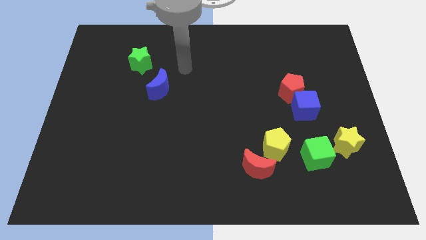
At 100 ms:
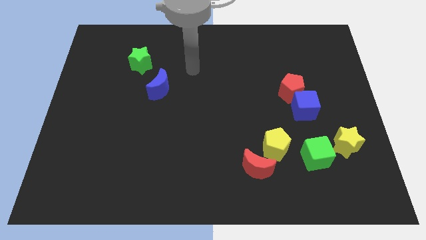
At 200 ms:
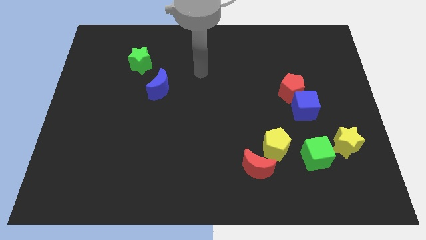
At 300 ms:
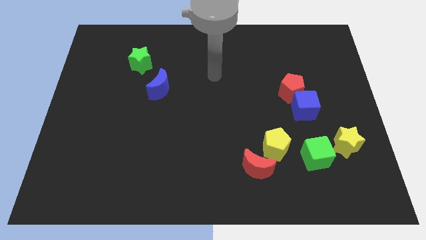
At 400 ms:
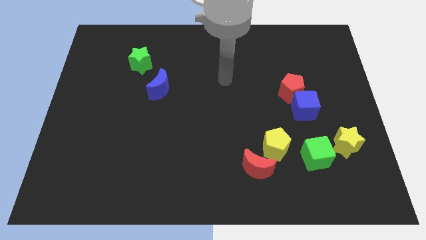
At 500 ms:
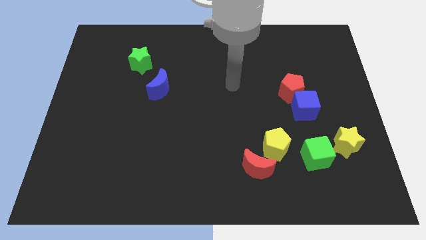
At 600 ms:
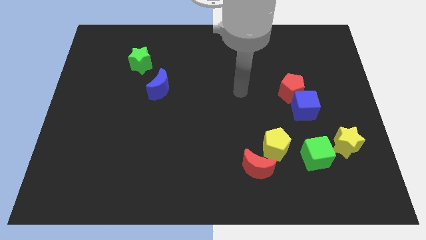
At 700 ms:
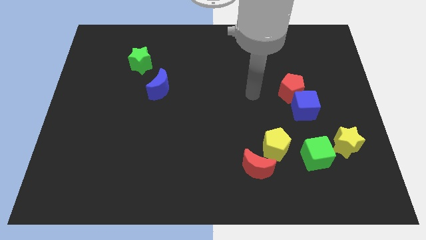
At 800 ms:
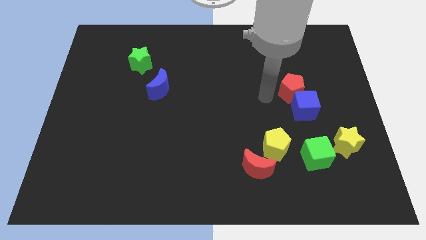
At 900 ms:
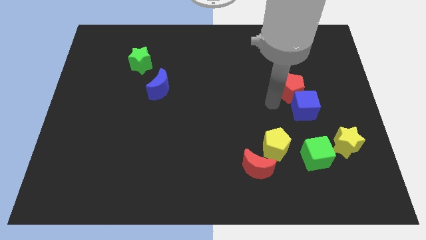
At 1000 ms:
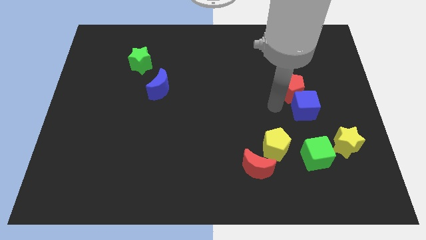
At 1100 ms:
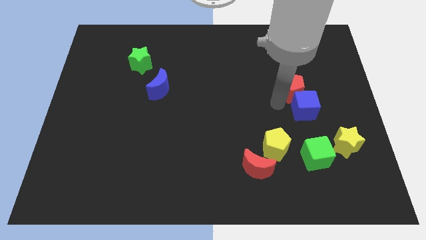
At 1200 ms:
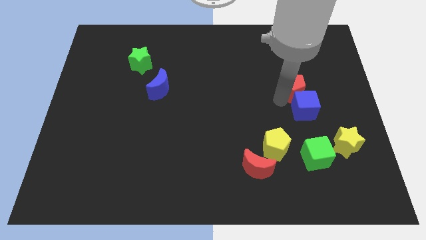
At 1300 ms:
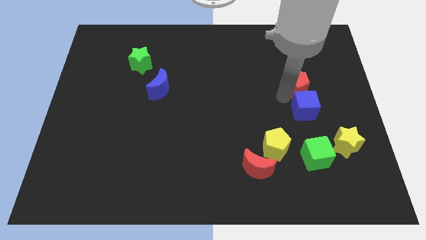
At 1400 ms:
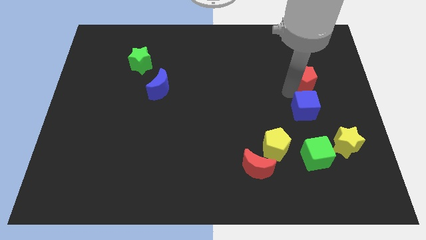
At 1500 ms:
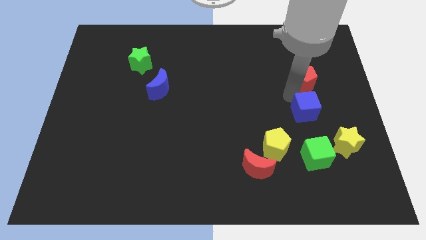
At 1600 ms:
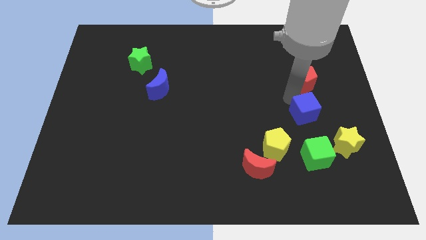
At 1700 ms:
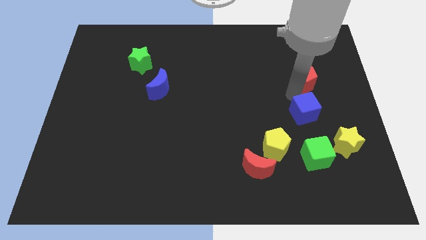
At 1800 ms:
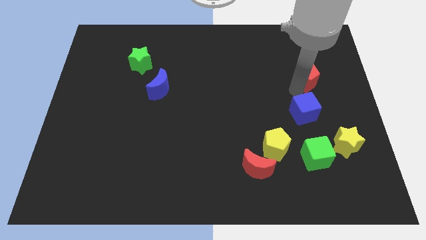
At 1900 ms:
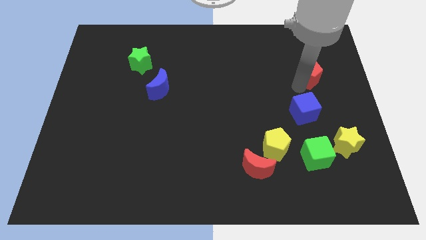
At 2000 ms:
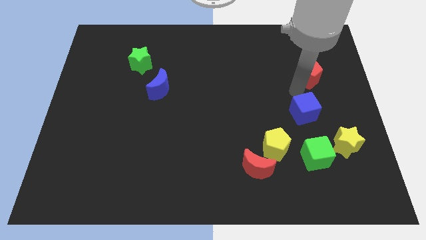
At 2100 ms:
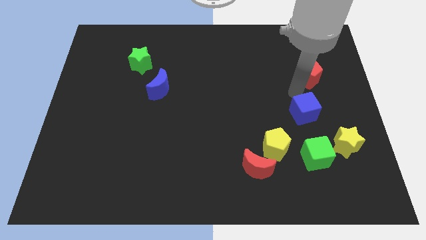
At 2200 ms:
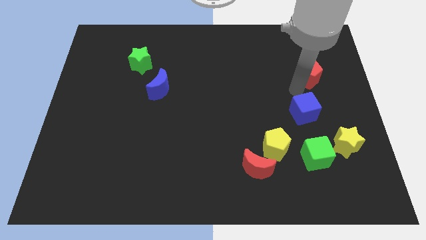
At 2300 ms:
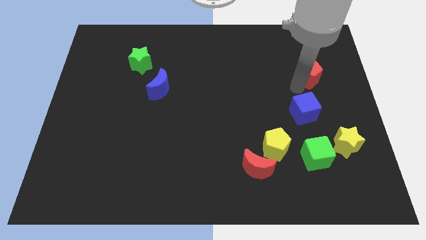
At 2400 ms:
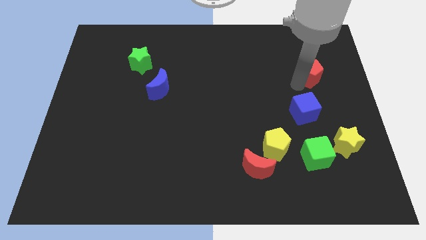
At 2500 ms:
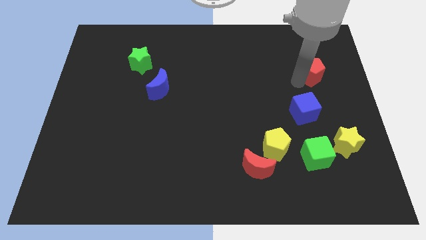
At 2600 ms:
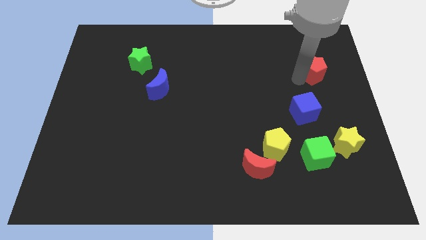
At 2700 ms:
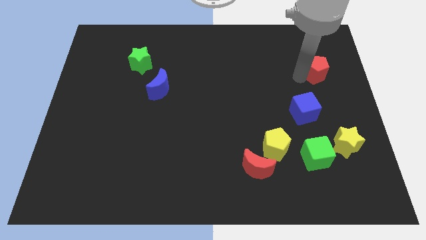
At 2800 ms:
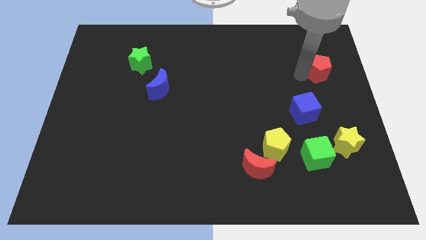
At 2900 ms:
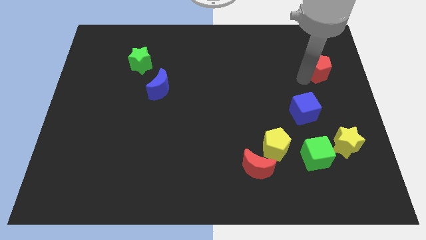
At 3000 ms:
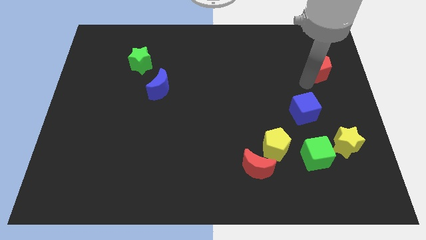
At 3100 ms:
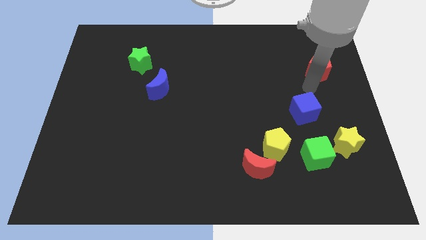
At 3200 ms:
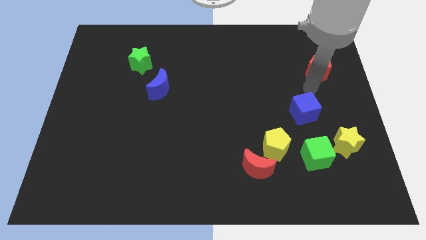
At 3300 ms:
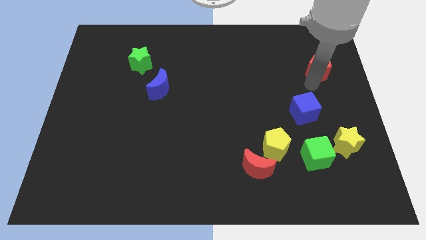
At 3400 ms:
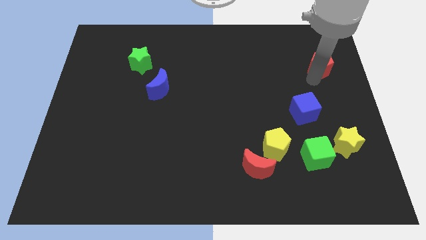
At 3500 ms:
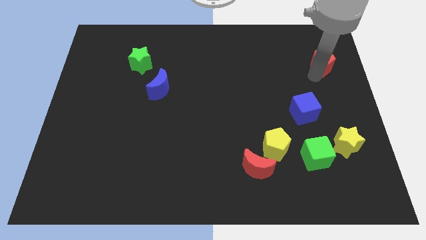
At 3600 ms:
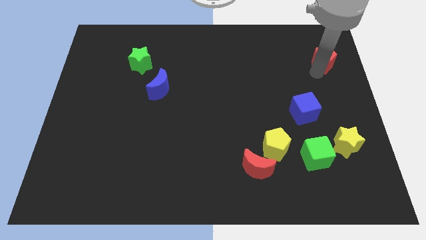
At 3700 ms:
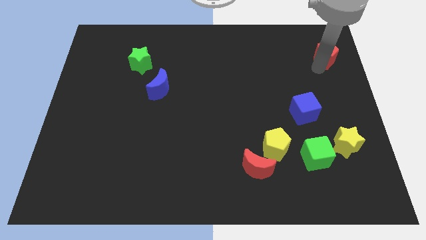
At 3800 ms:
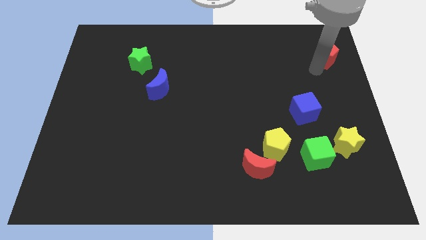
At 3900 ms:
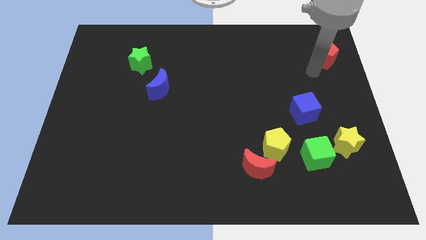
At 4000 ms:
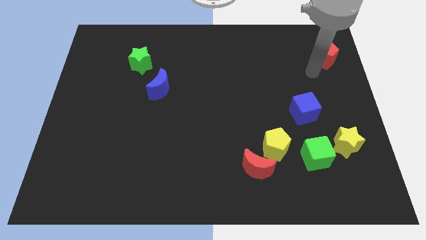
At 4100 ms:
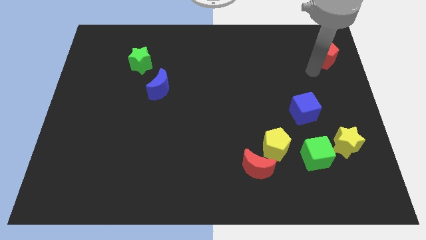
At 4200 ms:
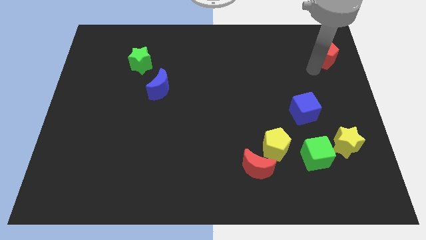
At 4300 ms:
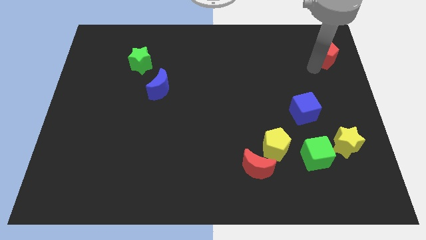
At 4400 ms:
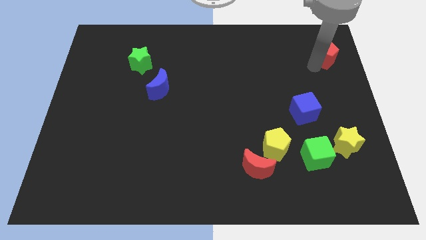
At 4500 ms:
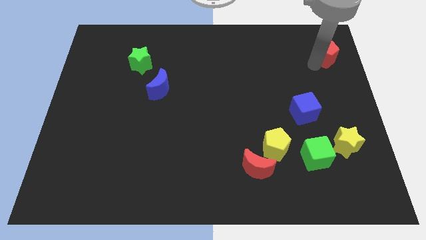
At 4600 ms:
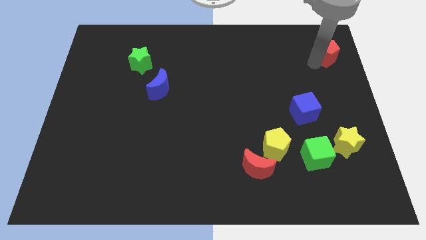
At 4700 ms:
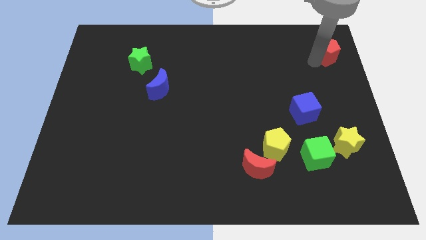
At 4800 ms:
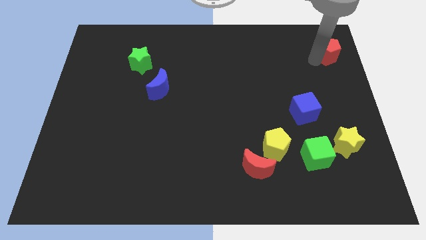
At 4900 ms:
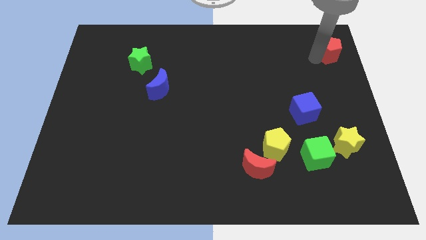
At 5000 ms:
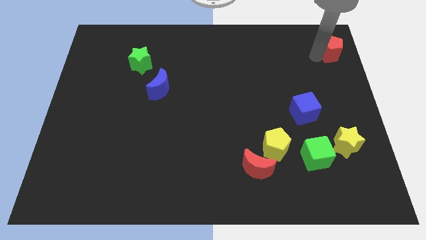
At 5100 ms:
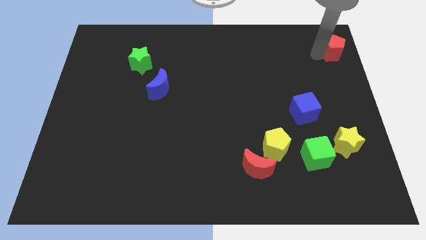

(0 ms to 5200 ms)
slide the red pentagon to the upper right corner

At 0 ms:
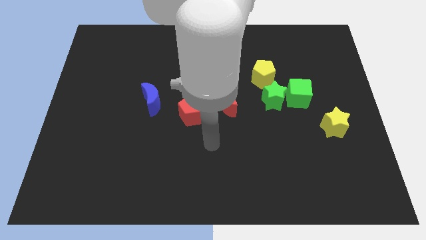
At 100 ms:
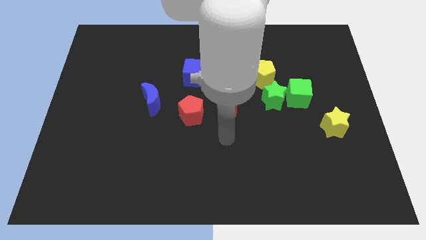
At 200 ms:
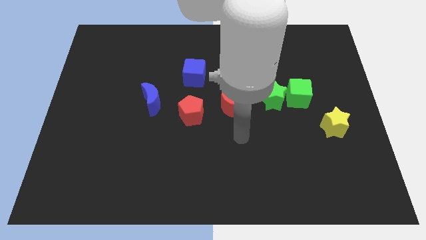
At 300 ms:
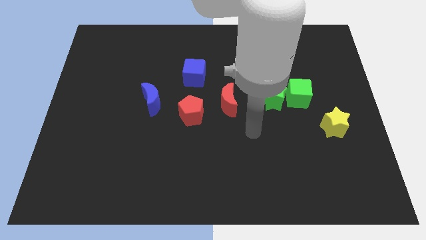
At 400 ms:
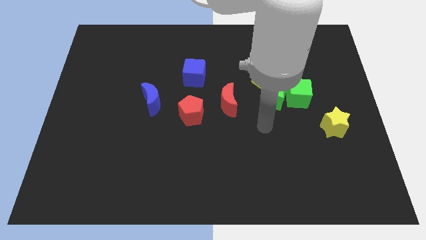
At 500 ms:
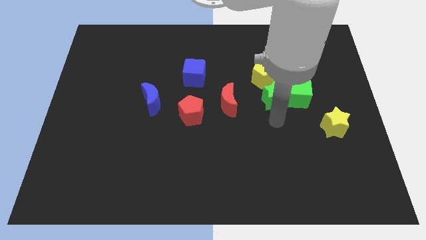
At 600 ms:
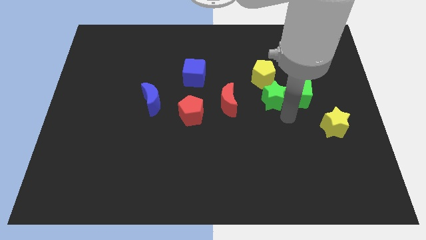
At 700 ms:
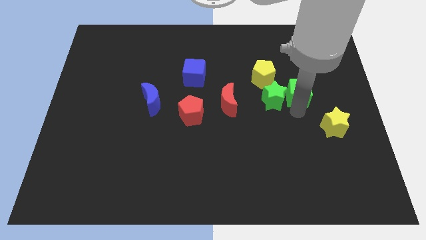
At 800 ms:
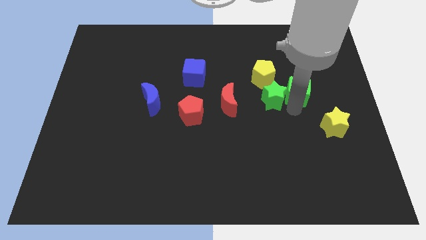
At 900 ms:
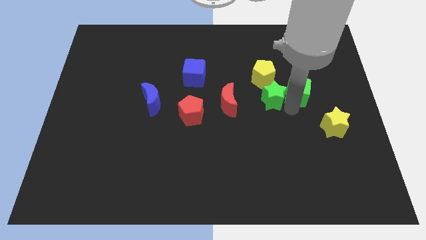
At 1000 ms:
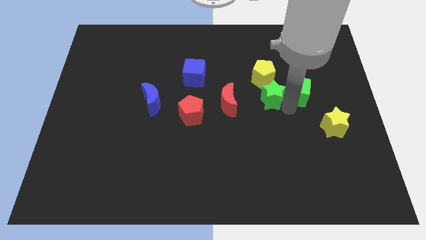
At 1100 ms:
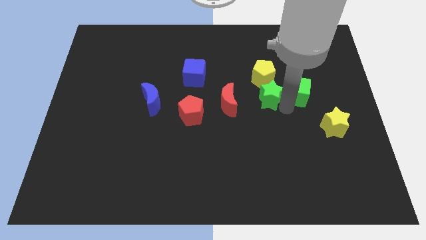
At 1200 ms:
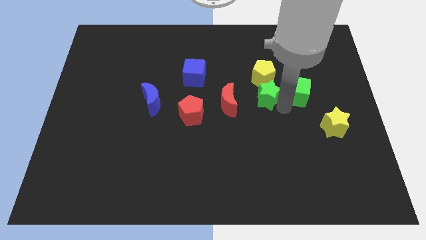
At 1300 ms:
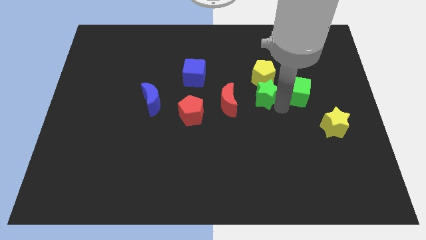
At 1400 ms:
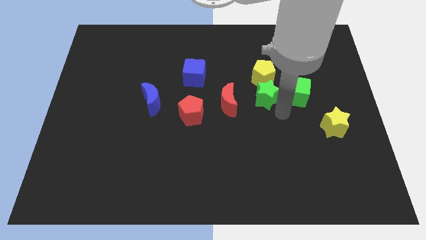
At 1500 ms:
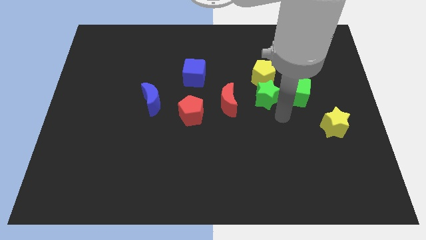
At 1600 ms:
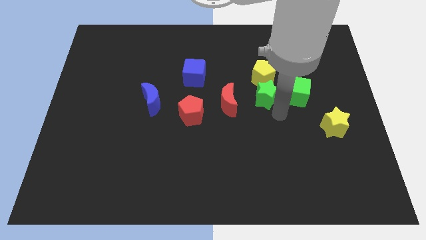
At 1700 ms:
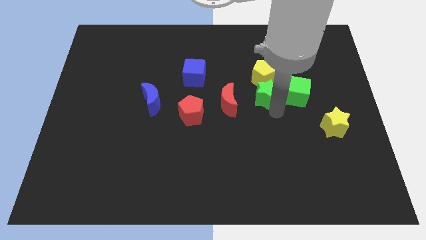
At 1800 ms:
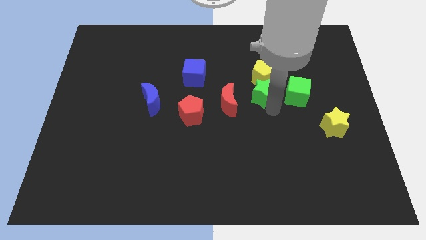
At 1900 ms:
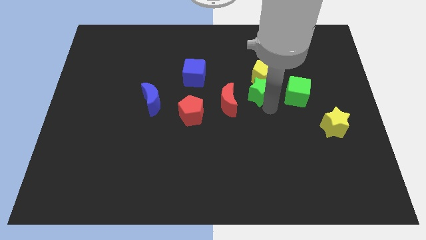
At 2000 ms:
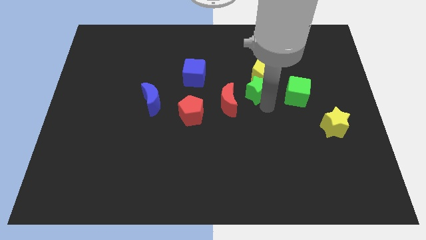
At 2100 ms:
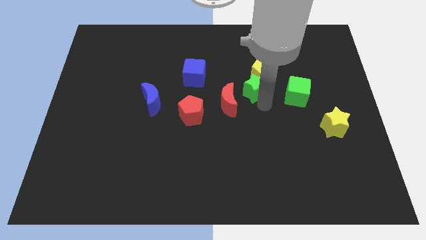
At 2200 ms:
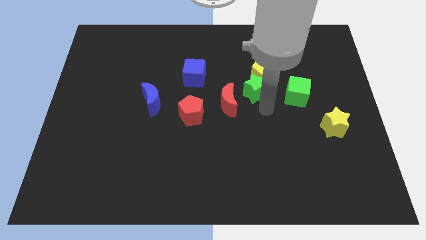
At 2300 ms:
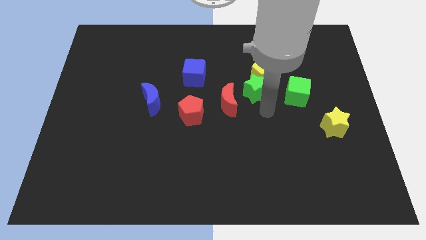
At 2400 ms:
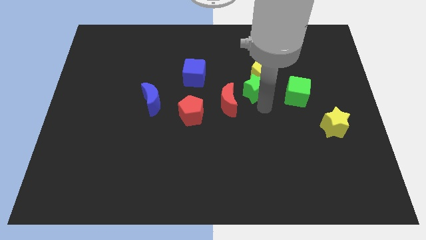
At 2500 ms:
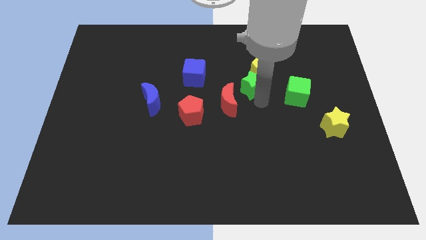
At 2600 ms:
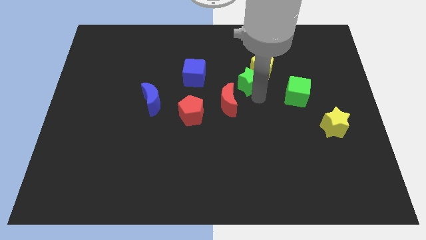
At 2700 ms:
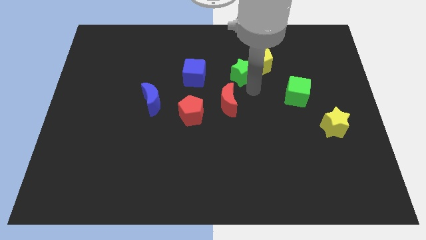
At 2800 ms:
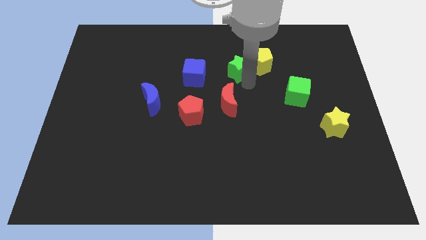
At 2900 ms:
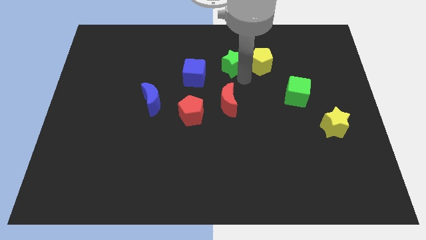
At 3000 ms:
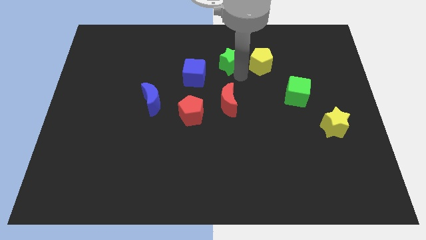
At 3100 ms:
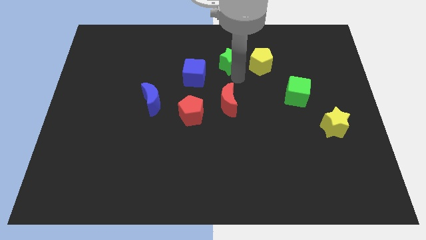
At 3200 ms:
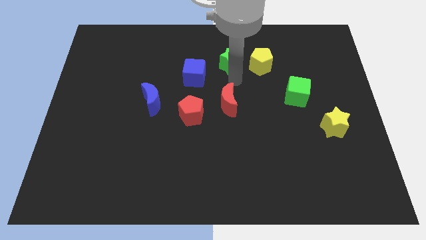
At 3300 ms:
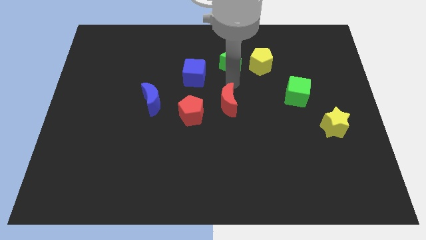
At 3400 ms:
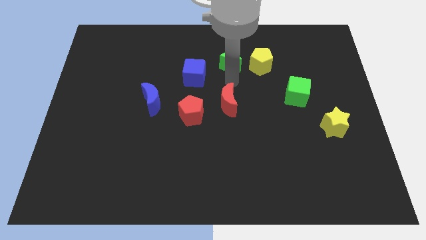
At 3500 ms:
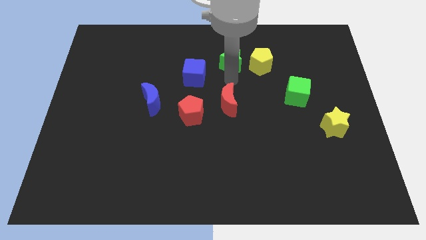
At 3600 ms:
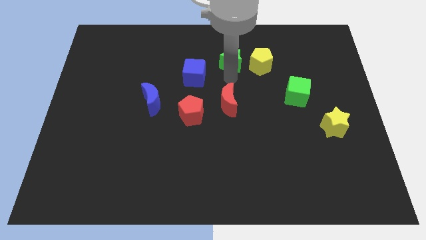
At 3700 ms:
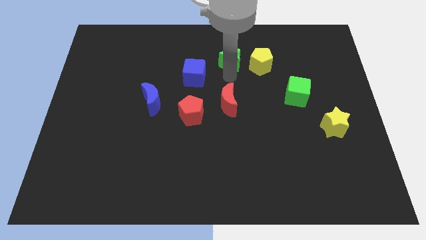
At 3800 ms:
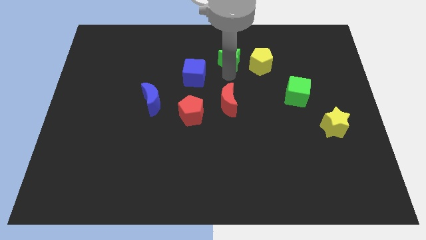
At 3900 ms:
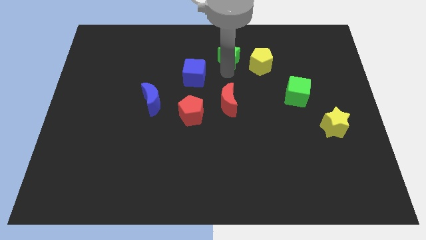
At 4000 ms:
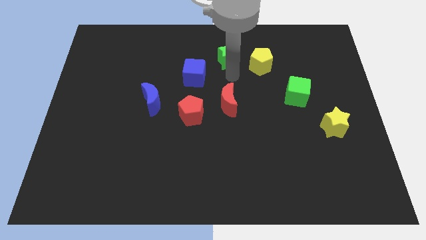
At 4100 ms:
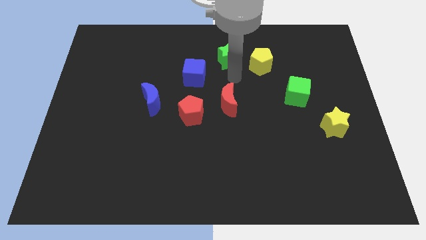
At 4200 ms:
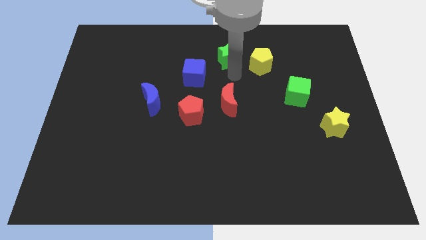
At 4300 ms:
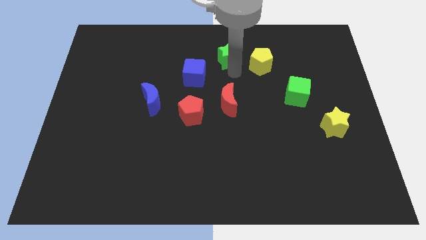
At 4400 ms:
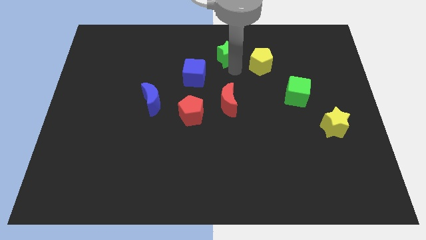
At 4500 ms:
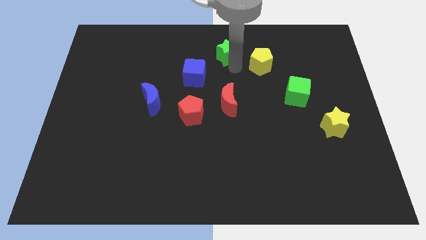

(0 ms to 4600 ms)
slide the green star to the top side
